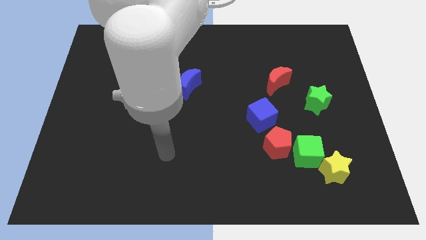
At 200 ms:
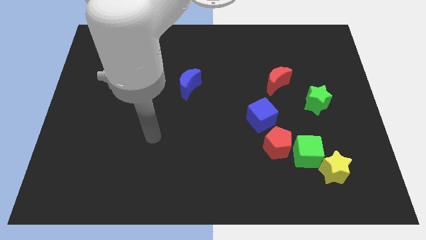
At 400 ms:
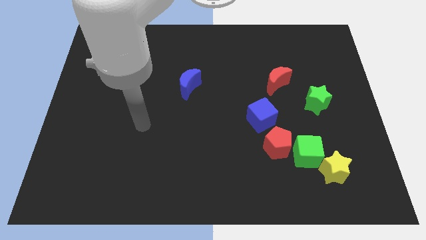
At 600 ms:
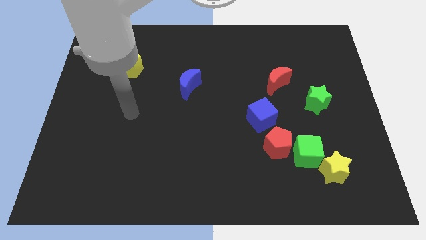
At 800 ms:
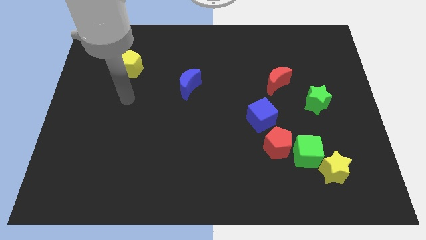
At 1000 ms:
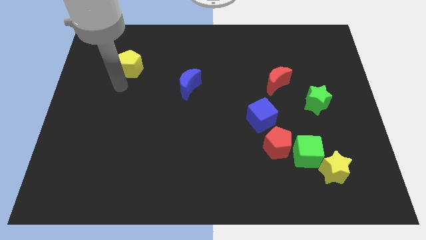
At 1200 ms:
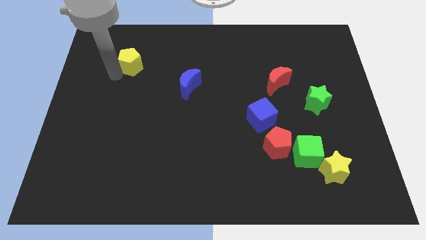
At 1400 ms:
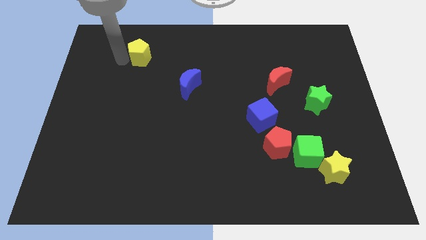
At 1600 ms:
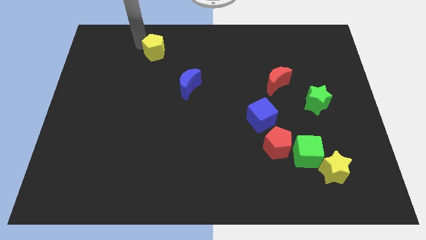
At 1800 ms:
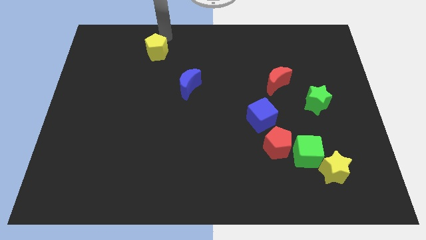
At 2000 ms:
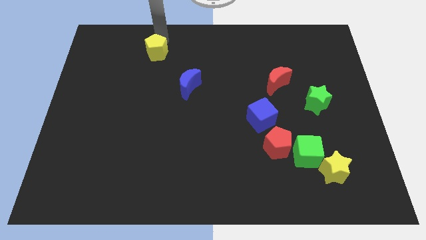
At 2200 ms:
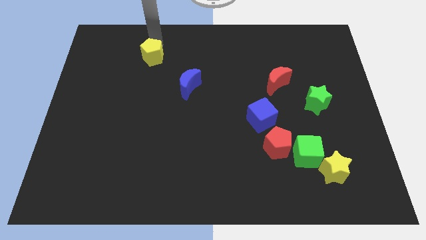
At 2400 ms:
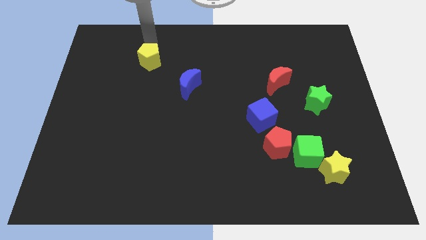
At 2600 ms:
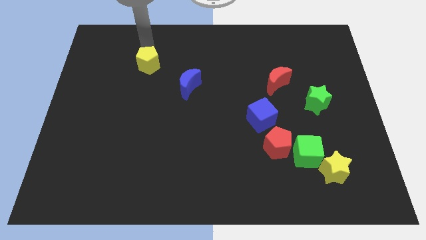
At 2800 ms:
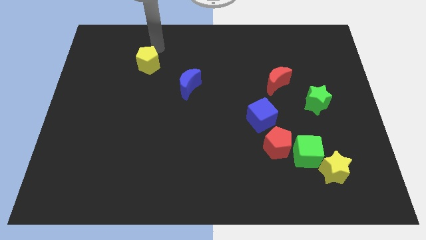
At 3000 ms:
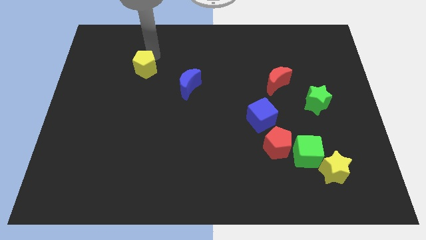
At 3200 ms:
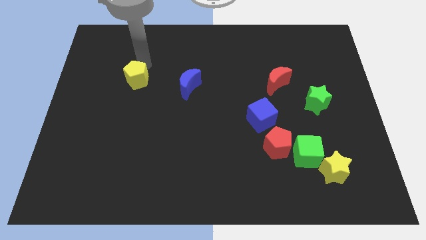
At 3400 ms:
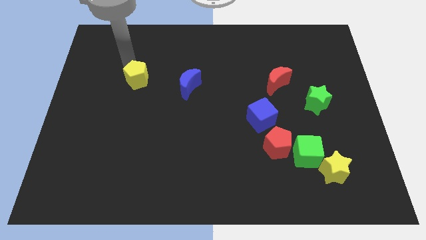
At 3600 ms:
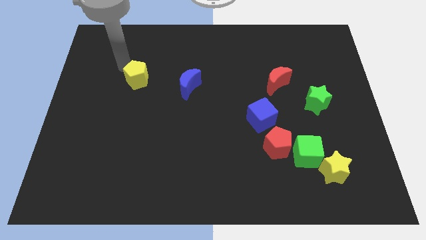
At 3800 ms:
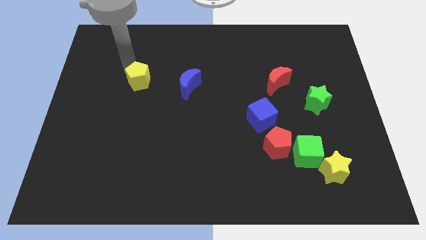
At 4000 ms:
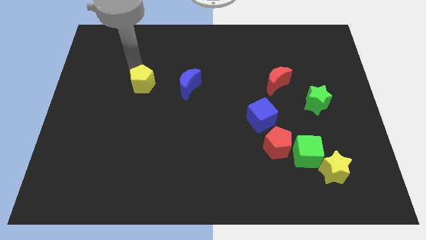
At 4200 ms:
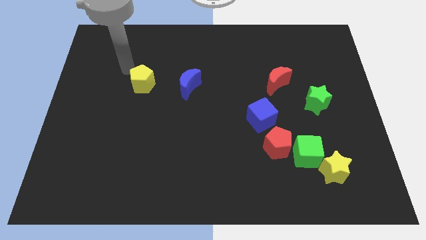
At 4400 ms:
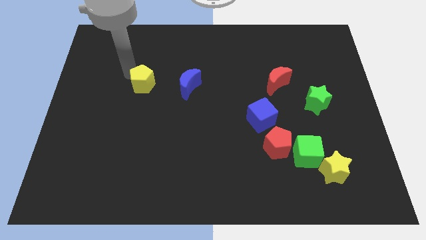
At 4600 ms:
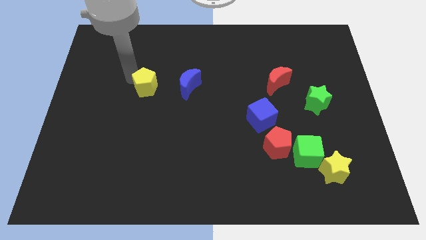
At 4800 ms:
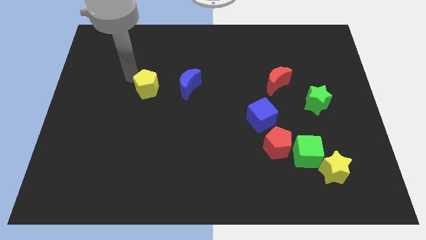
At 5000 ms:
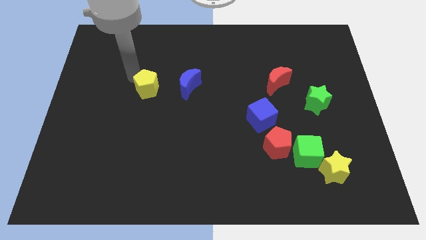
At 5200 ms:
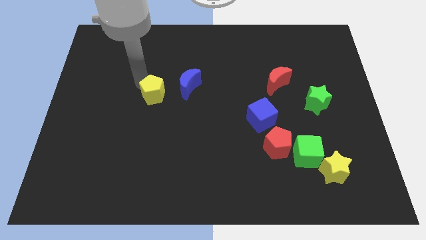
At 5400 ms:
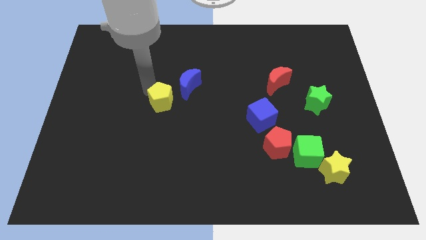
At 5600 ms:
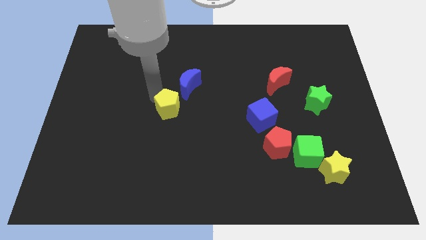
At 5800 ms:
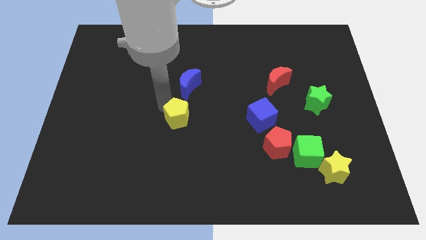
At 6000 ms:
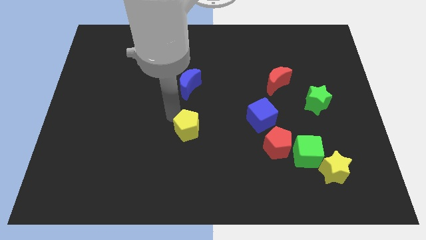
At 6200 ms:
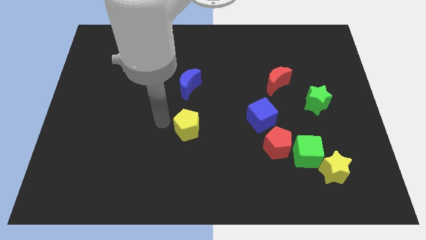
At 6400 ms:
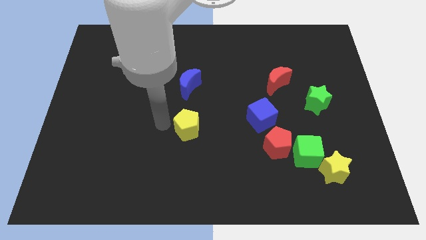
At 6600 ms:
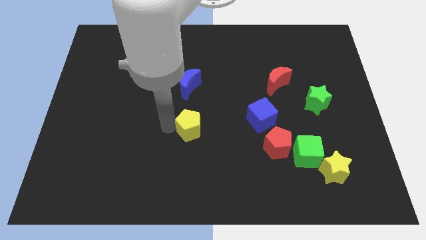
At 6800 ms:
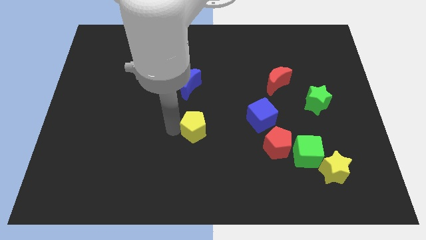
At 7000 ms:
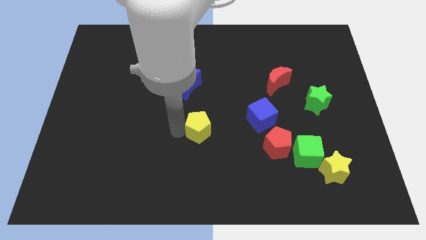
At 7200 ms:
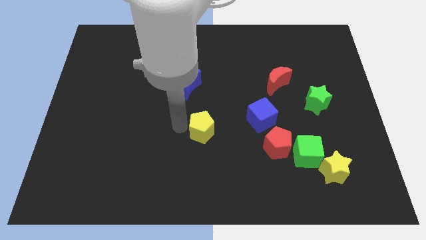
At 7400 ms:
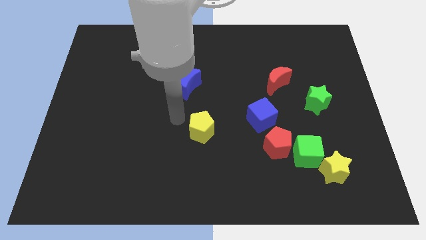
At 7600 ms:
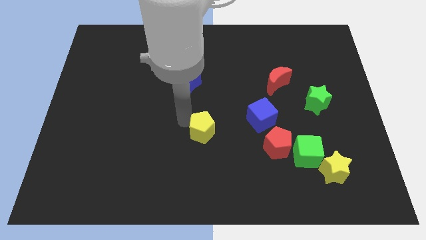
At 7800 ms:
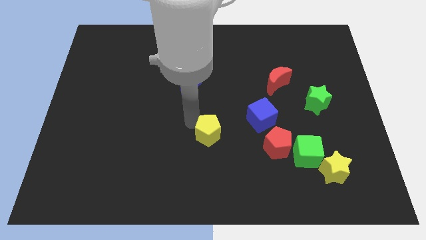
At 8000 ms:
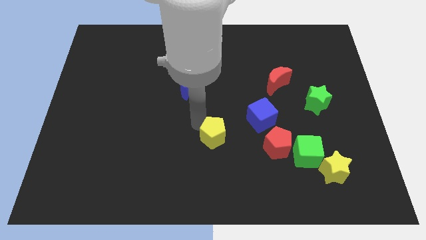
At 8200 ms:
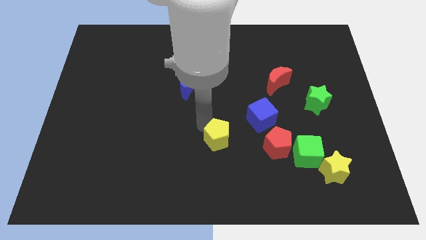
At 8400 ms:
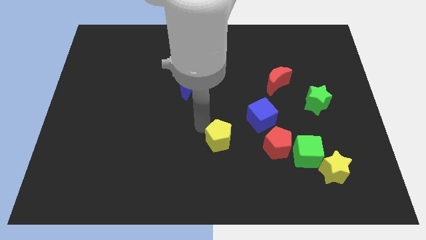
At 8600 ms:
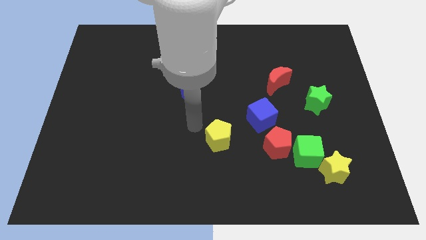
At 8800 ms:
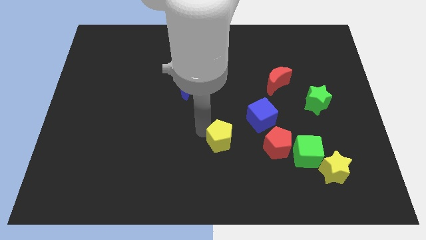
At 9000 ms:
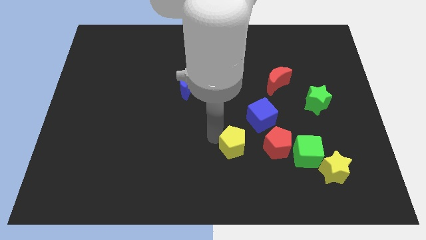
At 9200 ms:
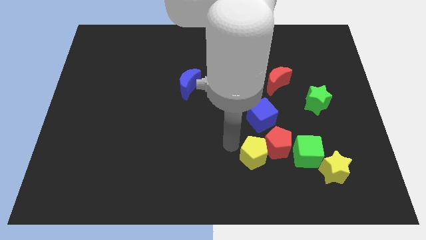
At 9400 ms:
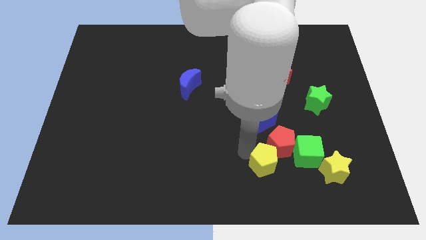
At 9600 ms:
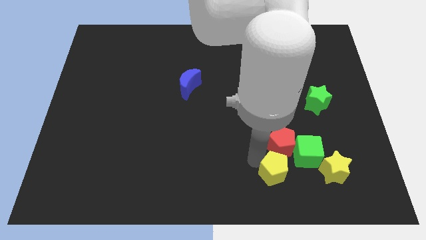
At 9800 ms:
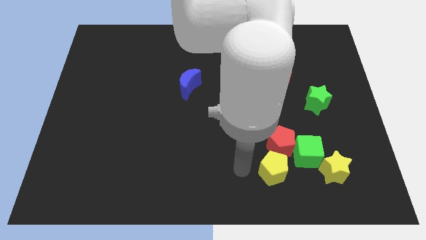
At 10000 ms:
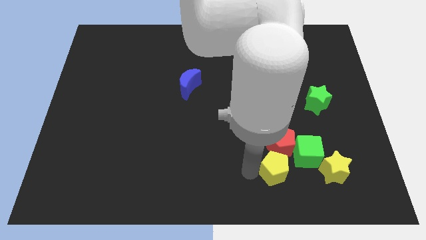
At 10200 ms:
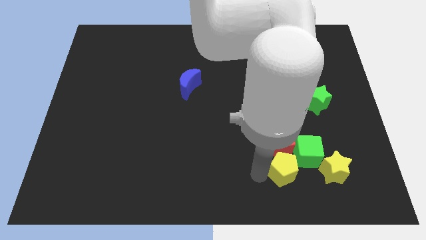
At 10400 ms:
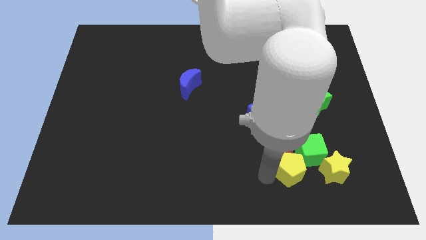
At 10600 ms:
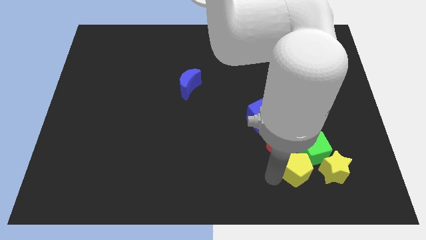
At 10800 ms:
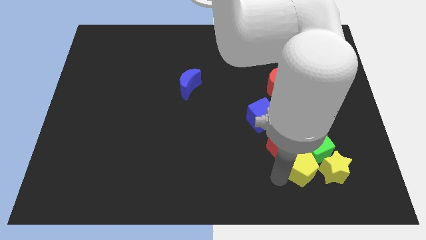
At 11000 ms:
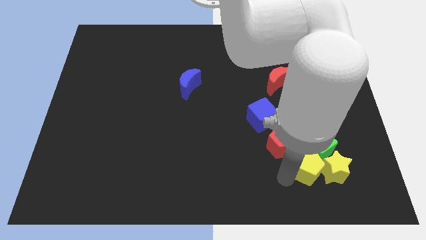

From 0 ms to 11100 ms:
push the yellow pentagon close to the yellow star

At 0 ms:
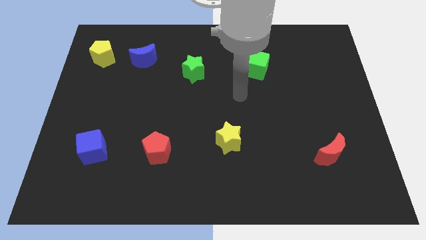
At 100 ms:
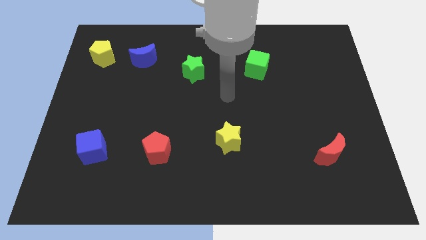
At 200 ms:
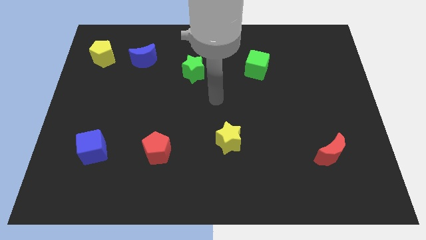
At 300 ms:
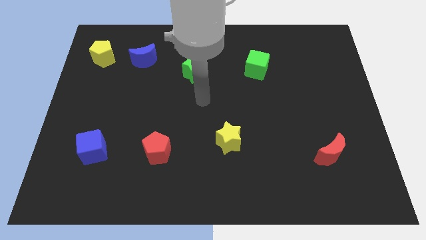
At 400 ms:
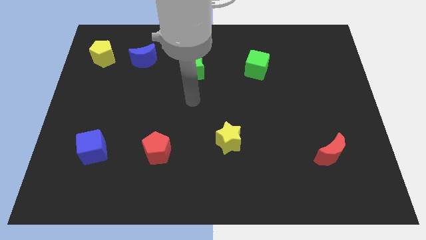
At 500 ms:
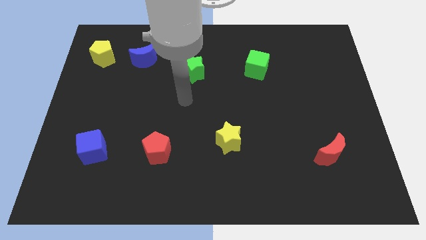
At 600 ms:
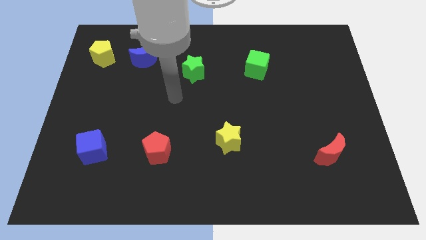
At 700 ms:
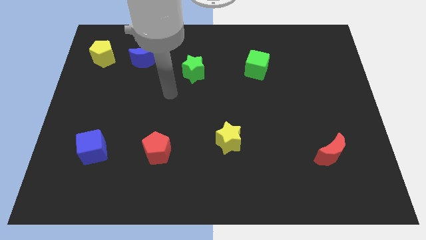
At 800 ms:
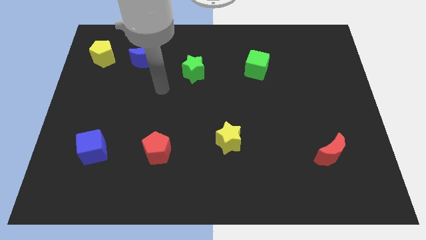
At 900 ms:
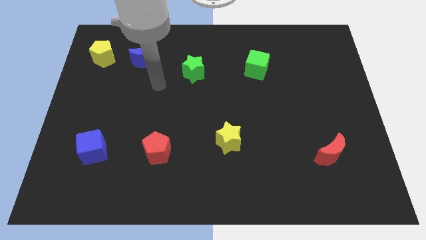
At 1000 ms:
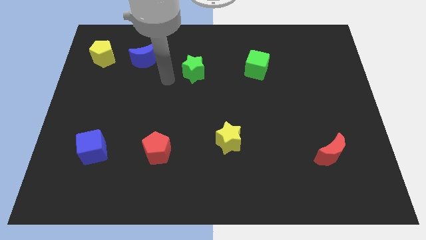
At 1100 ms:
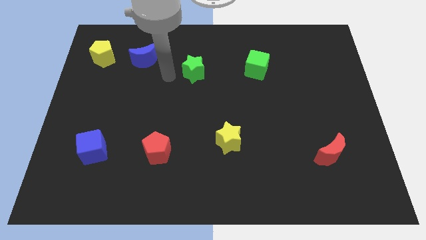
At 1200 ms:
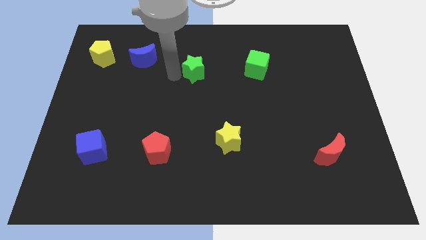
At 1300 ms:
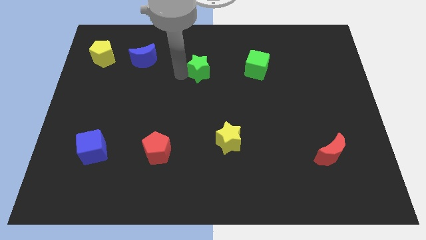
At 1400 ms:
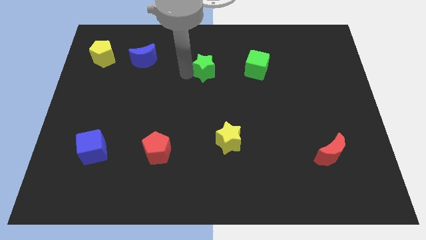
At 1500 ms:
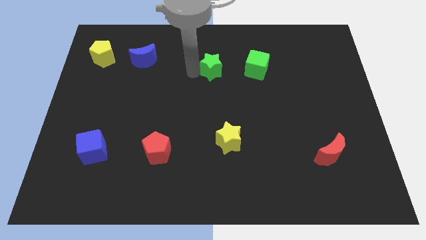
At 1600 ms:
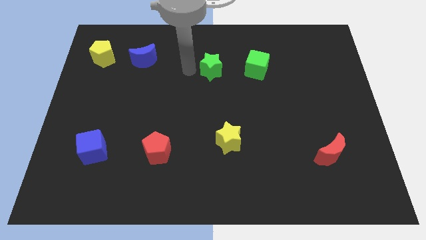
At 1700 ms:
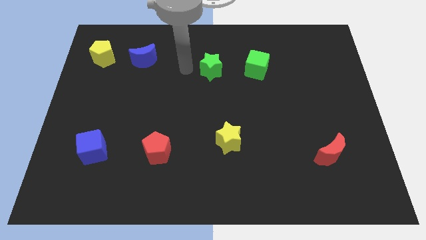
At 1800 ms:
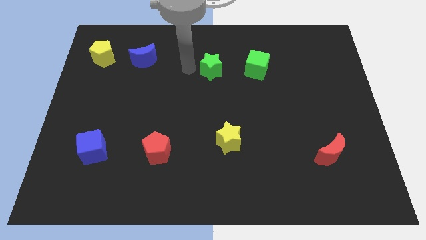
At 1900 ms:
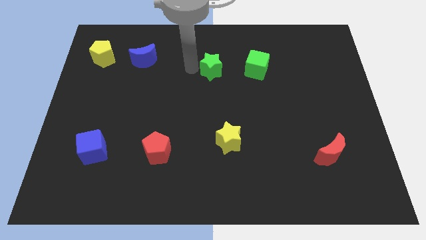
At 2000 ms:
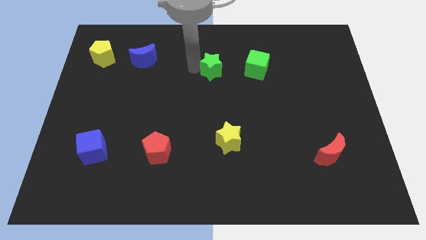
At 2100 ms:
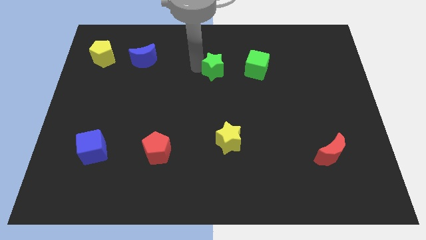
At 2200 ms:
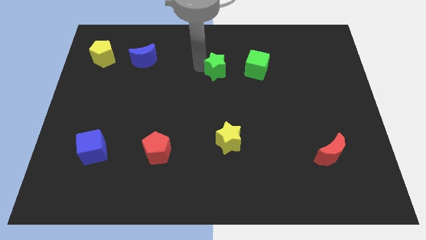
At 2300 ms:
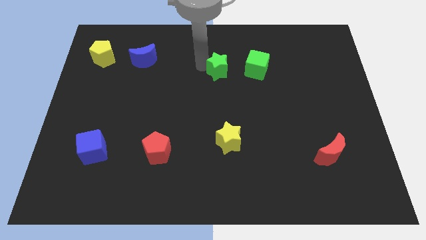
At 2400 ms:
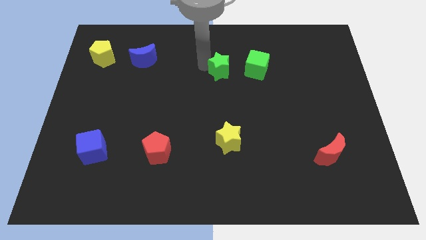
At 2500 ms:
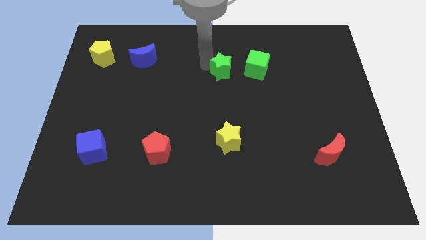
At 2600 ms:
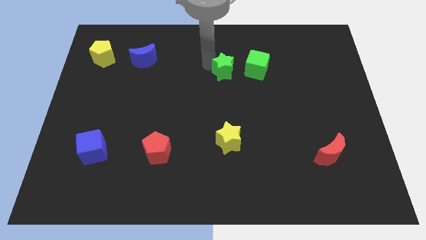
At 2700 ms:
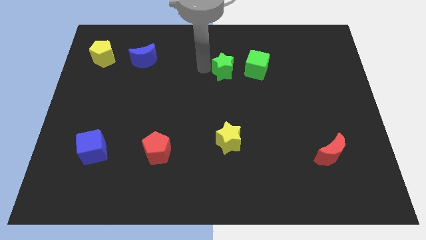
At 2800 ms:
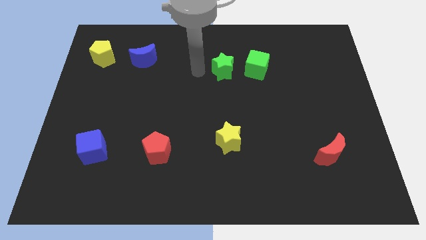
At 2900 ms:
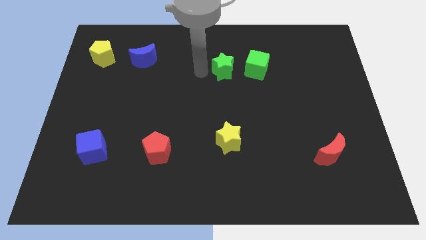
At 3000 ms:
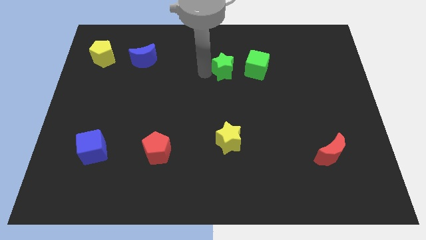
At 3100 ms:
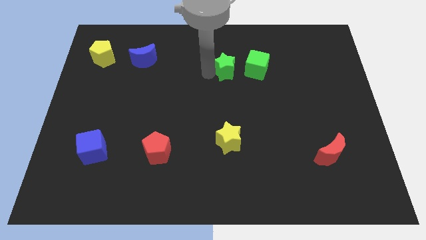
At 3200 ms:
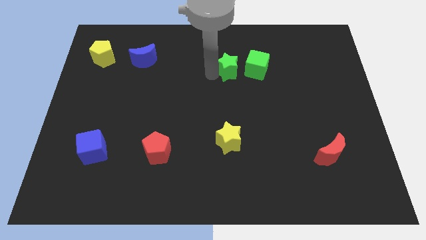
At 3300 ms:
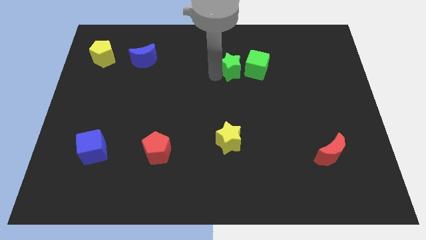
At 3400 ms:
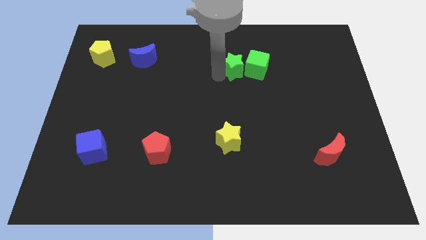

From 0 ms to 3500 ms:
put the green star close to the green cube
